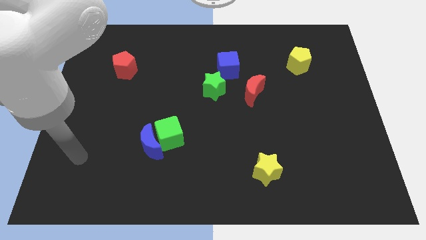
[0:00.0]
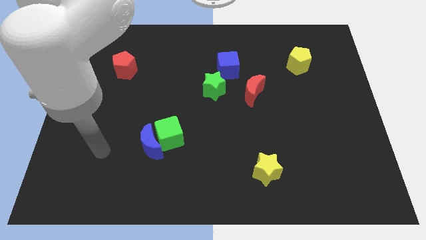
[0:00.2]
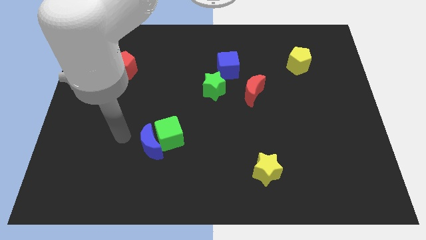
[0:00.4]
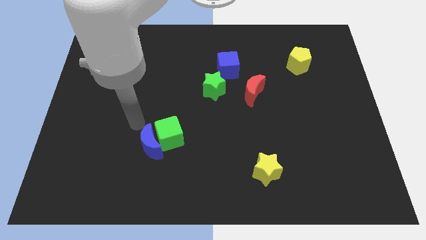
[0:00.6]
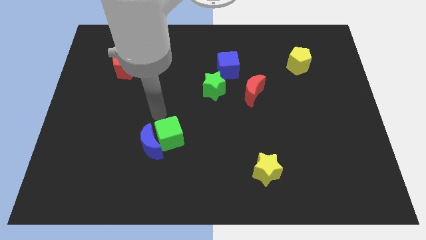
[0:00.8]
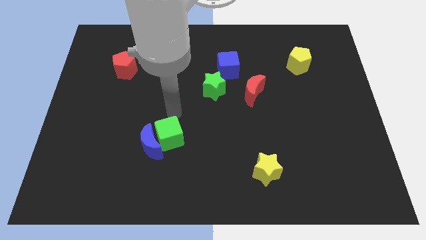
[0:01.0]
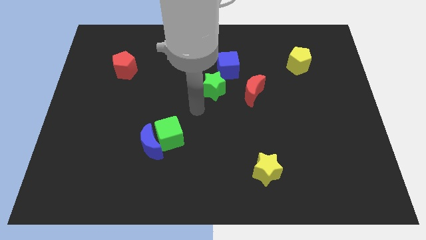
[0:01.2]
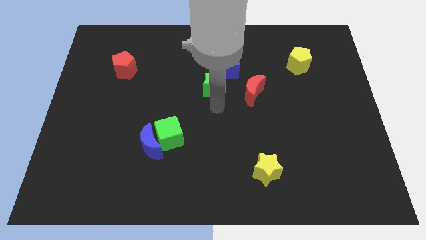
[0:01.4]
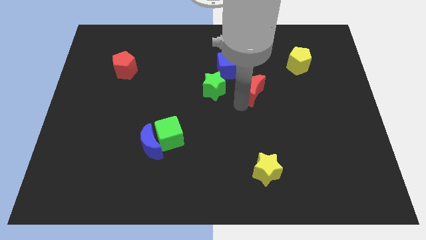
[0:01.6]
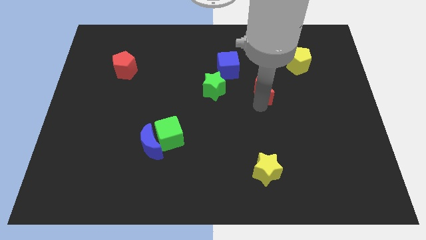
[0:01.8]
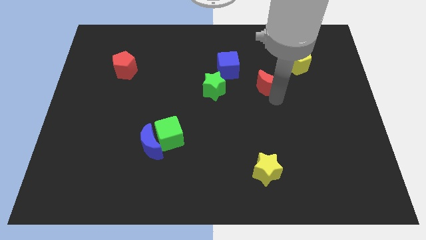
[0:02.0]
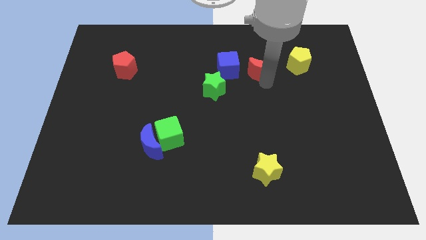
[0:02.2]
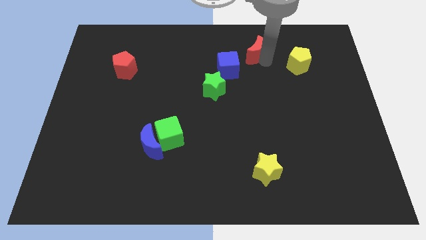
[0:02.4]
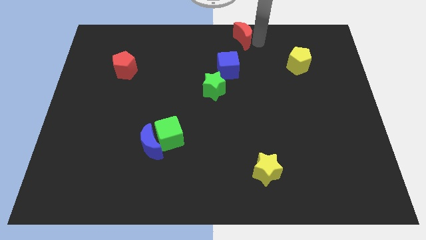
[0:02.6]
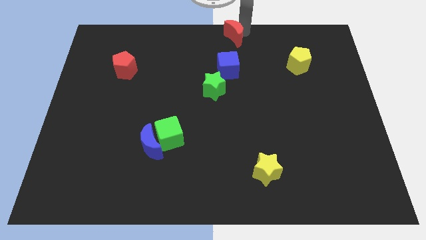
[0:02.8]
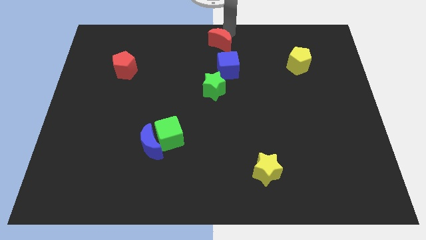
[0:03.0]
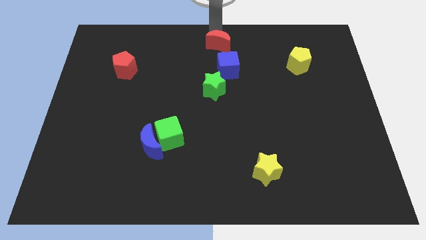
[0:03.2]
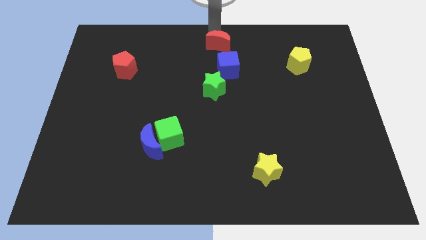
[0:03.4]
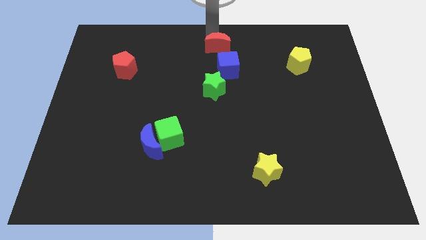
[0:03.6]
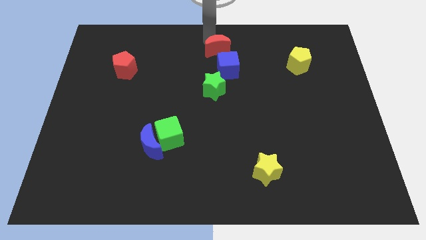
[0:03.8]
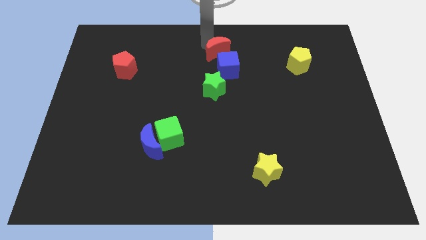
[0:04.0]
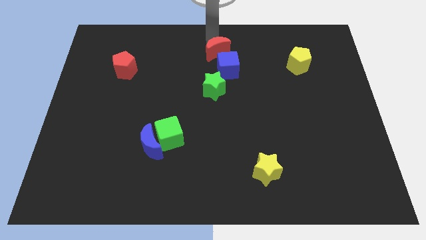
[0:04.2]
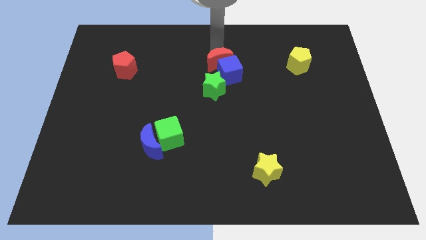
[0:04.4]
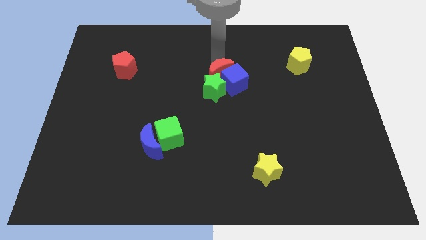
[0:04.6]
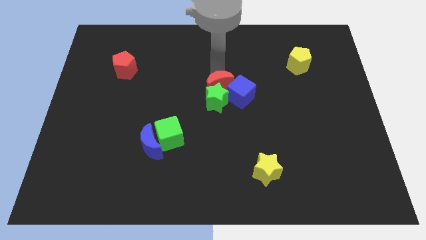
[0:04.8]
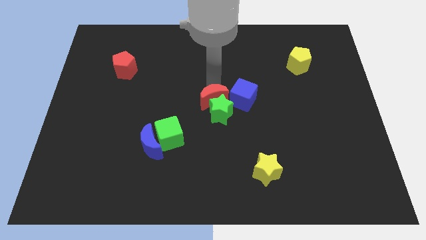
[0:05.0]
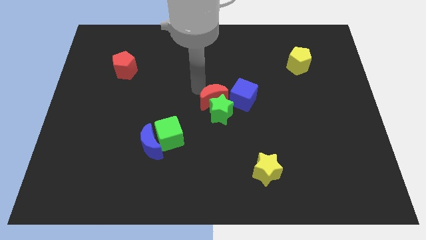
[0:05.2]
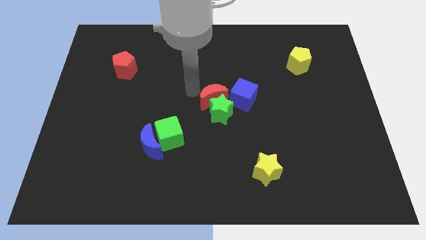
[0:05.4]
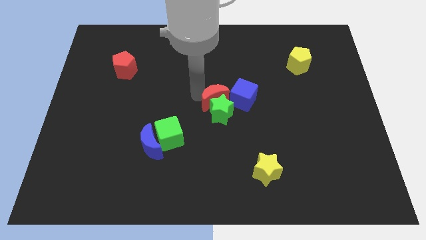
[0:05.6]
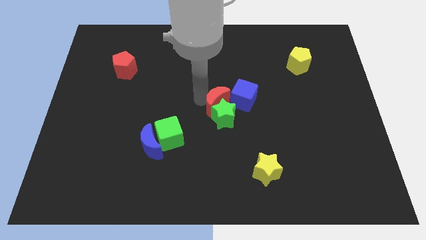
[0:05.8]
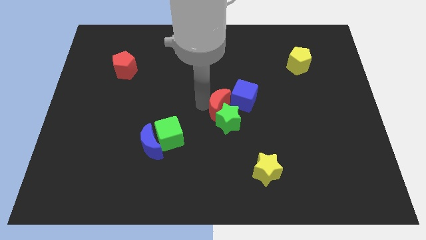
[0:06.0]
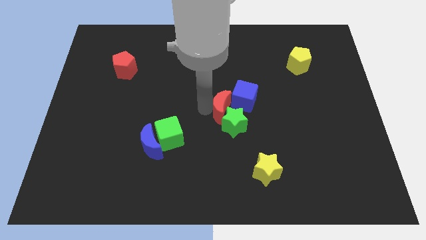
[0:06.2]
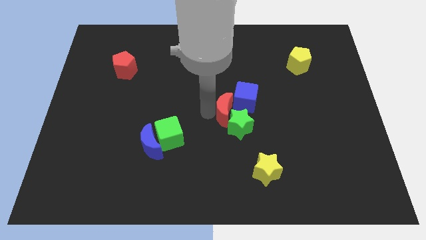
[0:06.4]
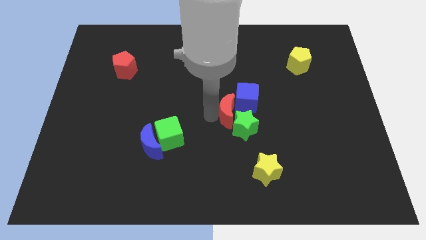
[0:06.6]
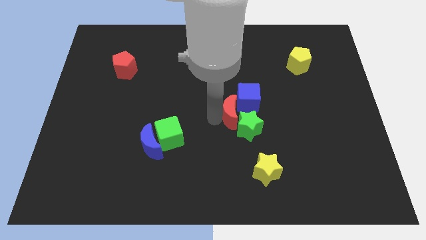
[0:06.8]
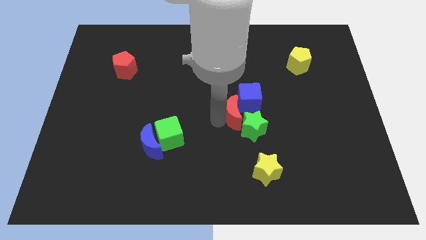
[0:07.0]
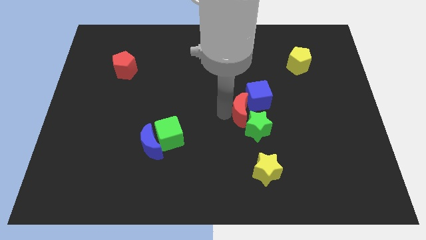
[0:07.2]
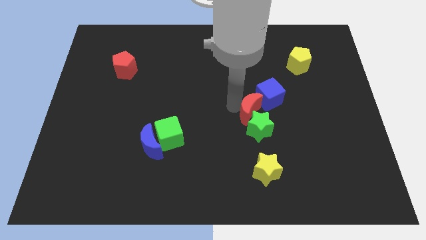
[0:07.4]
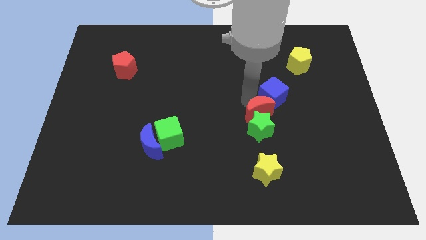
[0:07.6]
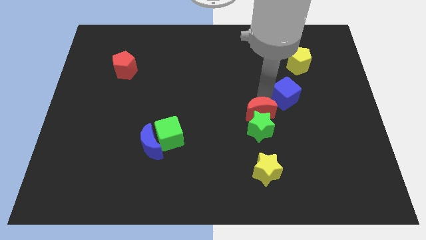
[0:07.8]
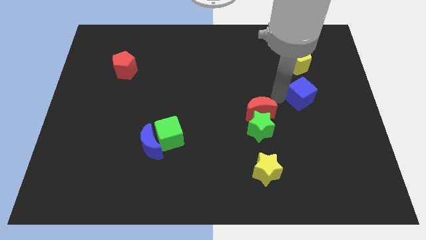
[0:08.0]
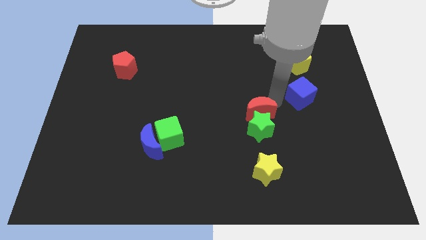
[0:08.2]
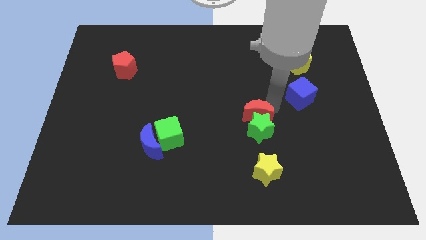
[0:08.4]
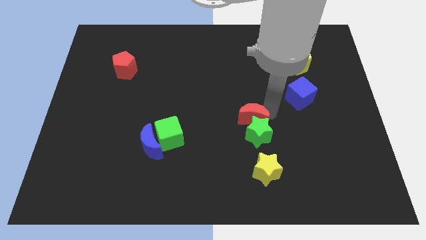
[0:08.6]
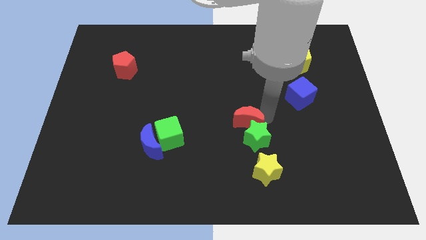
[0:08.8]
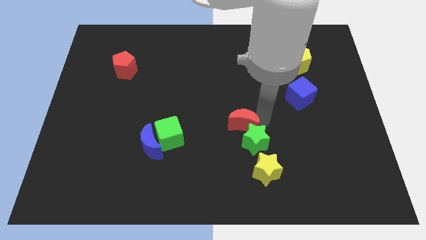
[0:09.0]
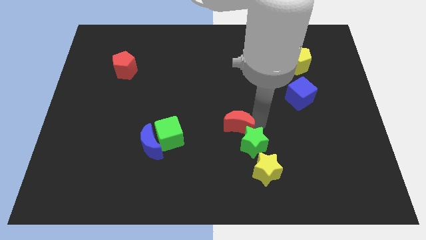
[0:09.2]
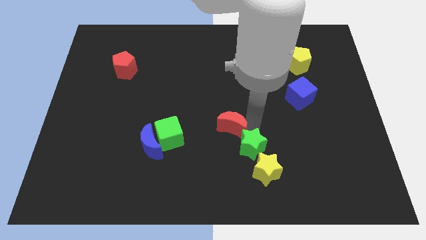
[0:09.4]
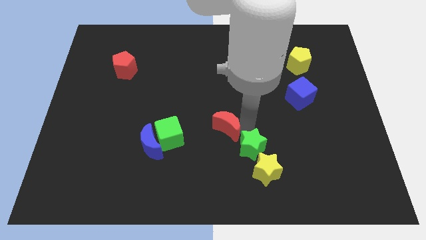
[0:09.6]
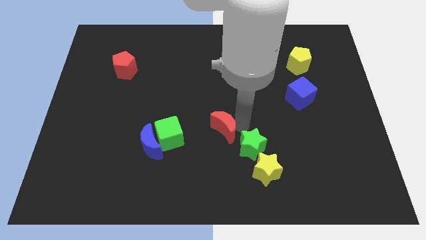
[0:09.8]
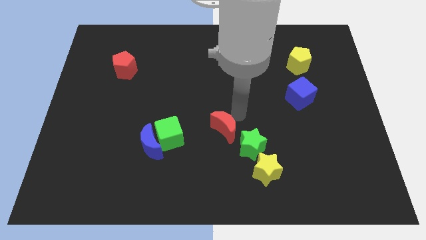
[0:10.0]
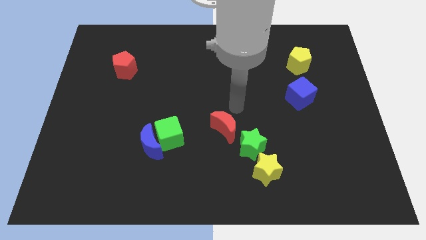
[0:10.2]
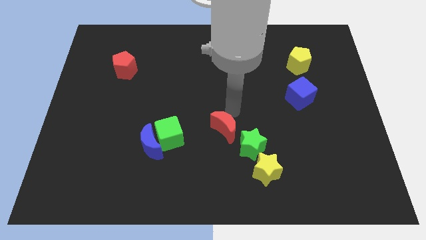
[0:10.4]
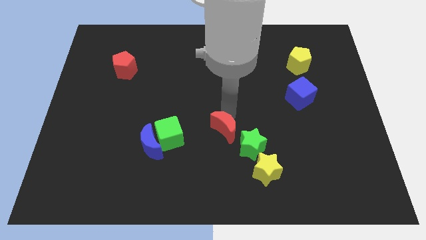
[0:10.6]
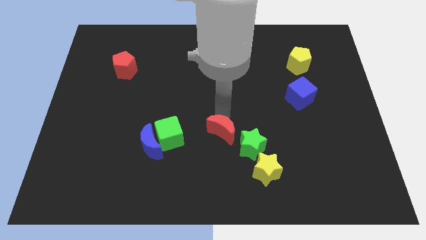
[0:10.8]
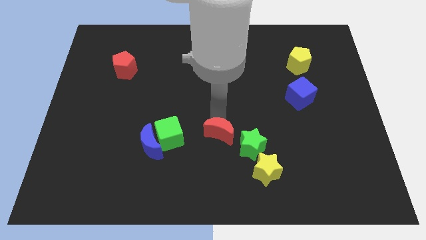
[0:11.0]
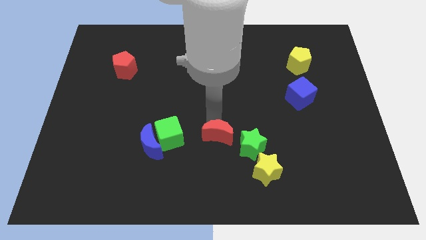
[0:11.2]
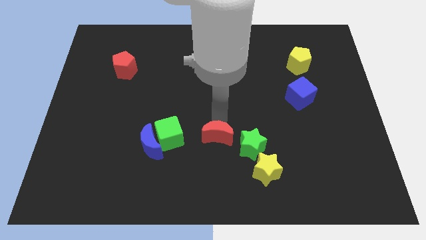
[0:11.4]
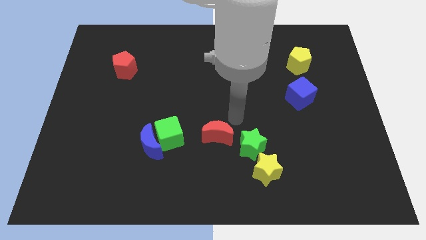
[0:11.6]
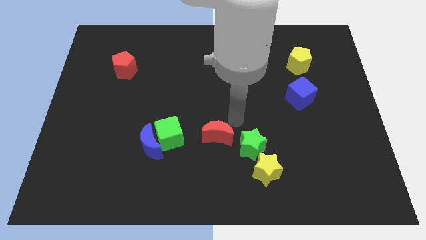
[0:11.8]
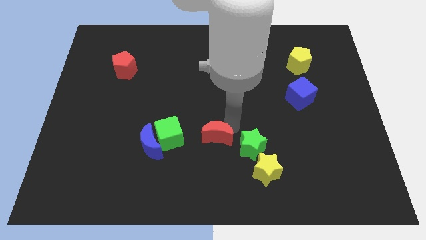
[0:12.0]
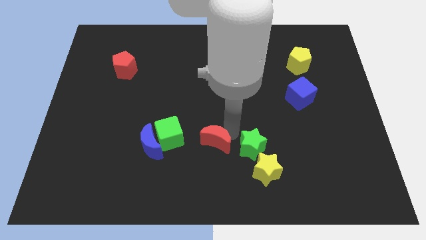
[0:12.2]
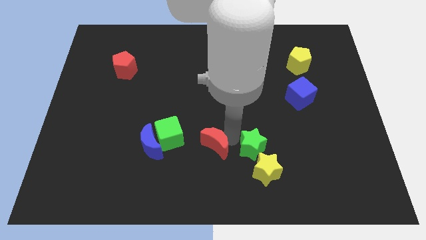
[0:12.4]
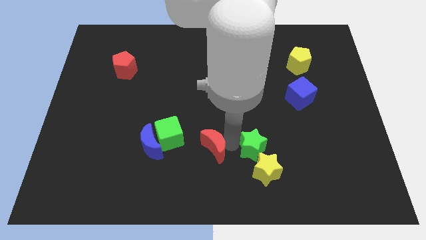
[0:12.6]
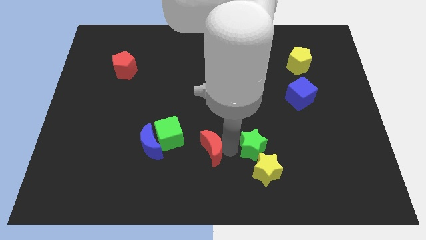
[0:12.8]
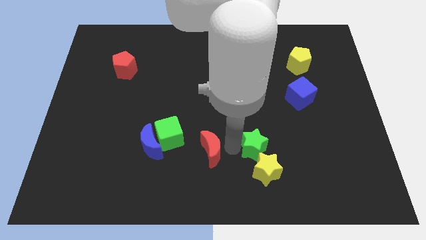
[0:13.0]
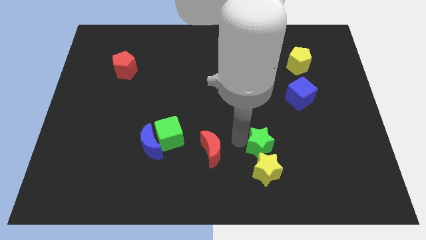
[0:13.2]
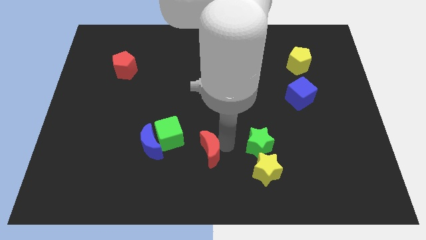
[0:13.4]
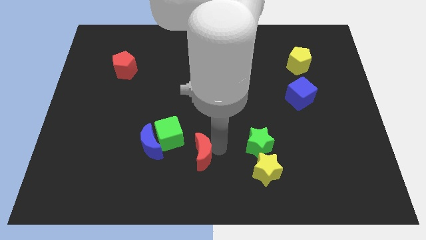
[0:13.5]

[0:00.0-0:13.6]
slide the red moon down and then left

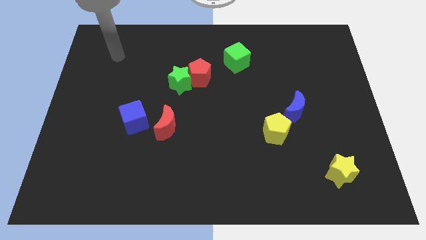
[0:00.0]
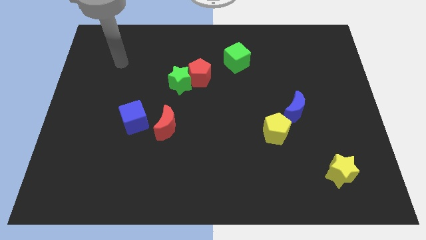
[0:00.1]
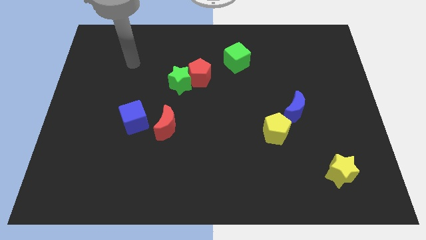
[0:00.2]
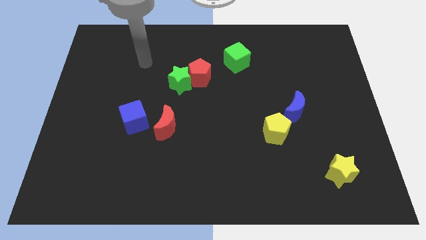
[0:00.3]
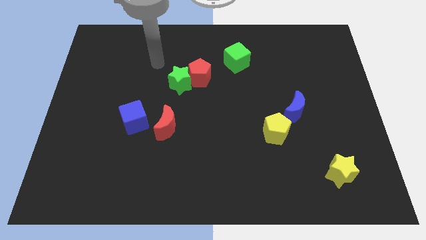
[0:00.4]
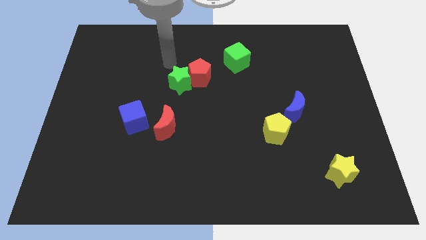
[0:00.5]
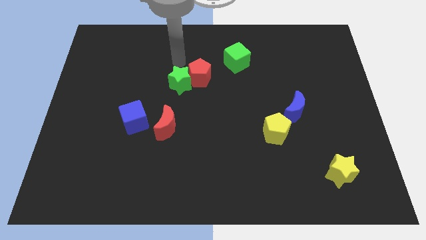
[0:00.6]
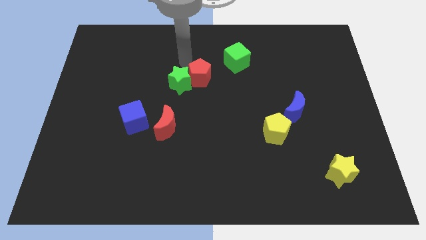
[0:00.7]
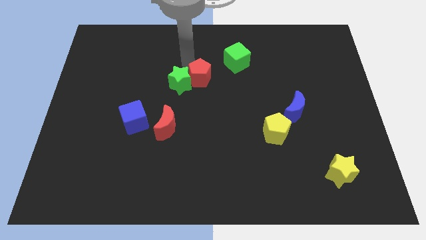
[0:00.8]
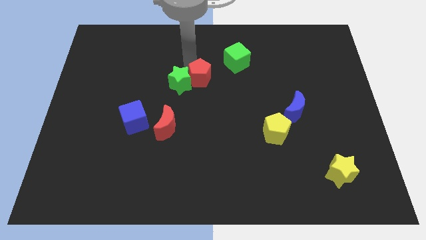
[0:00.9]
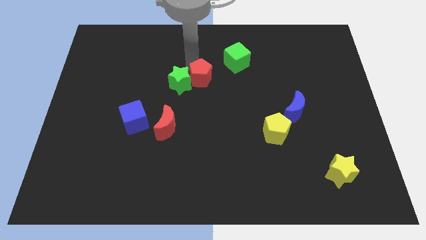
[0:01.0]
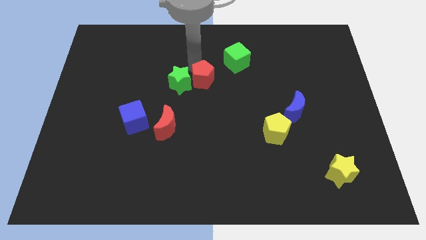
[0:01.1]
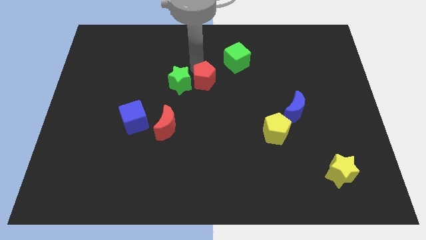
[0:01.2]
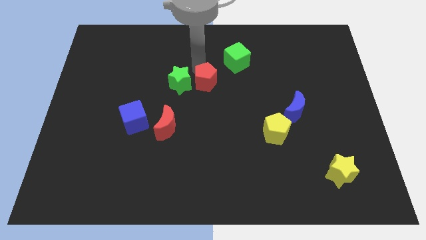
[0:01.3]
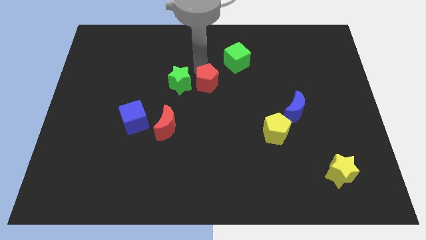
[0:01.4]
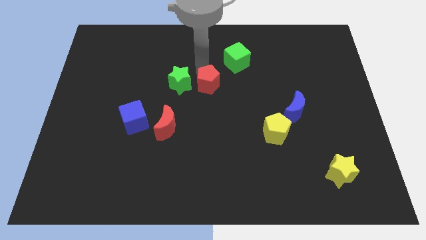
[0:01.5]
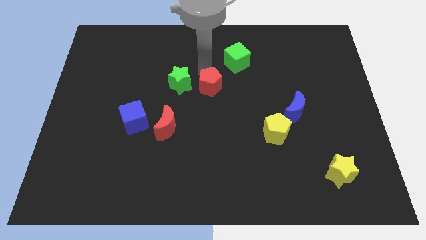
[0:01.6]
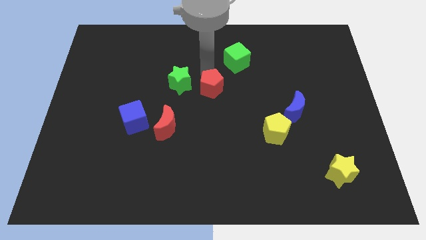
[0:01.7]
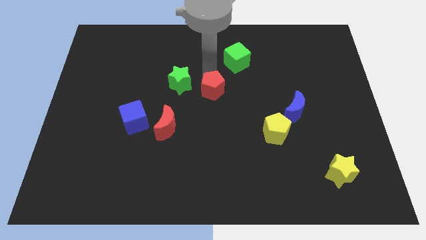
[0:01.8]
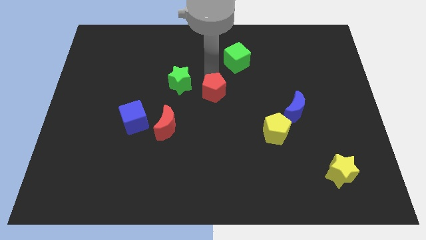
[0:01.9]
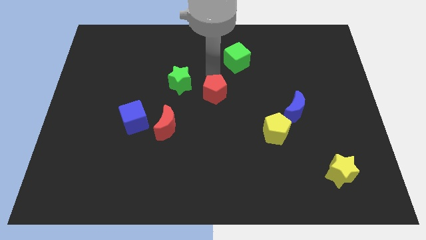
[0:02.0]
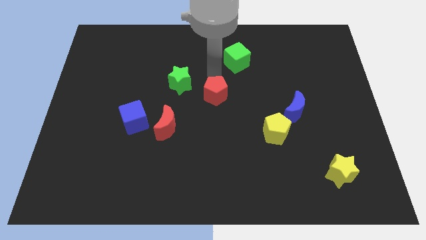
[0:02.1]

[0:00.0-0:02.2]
slightly push the red pentagon diagonally down and to the right
